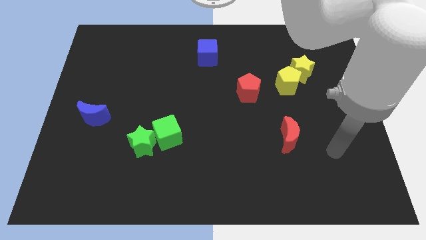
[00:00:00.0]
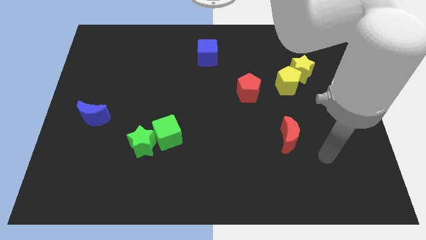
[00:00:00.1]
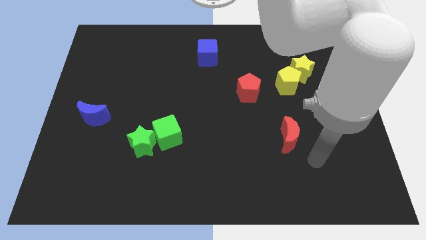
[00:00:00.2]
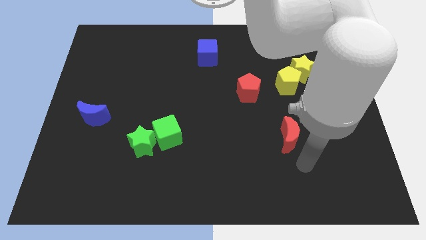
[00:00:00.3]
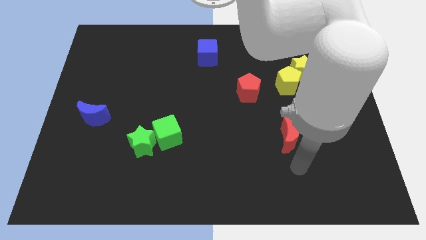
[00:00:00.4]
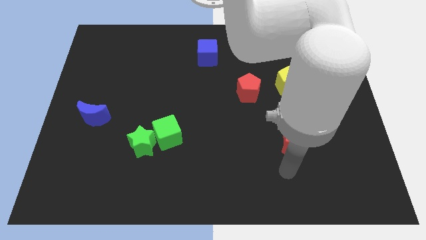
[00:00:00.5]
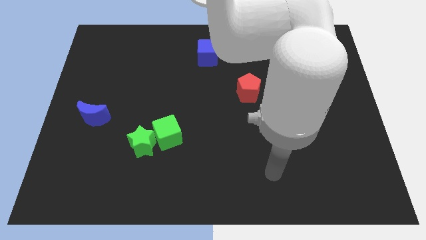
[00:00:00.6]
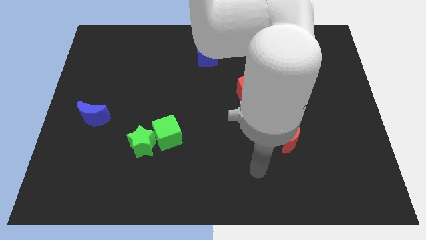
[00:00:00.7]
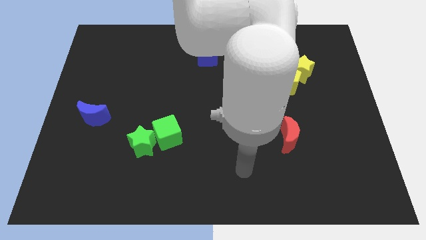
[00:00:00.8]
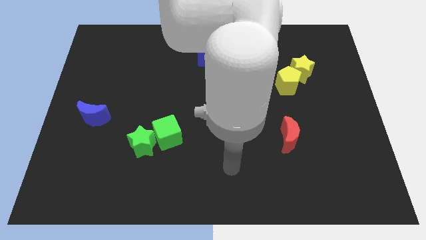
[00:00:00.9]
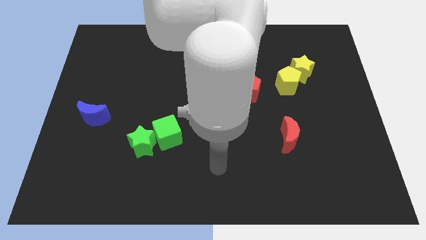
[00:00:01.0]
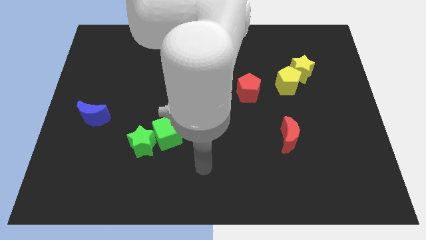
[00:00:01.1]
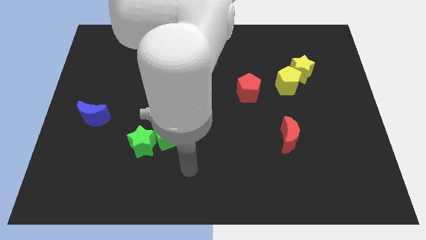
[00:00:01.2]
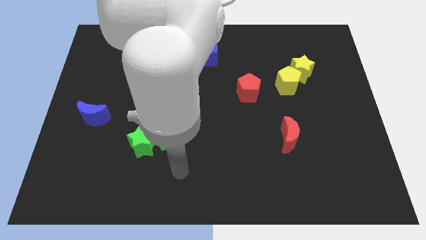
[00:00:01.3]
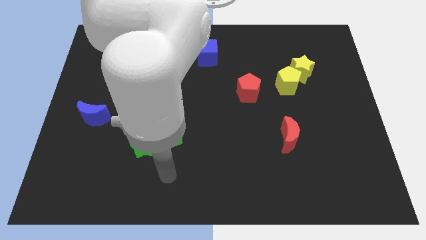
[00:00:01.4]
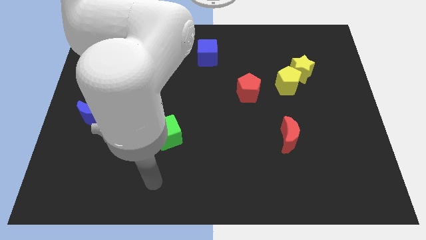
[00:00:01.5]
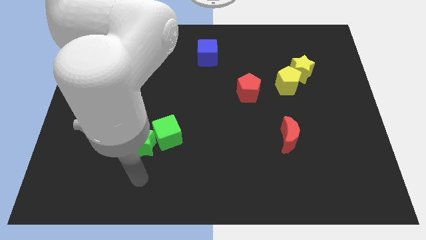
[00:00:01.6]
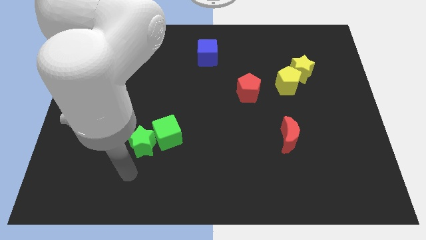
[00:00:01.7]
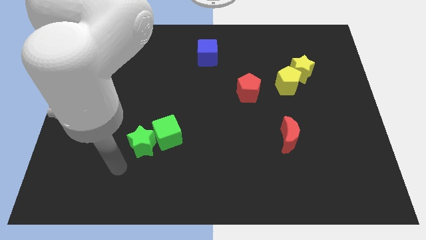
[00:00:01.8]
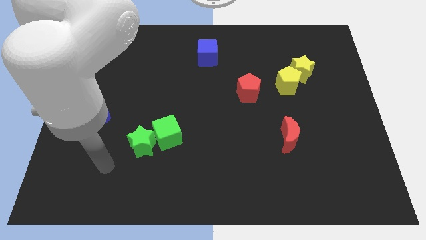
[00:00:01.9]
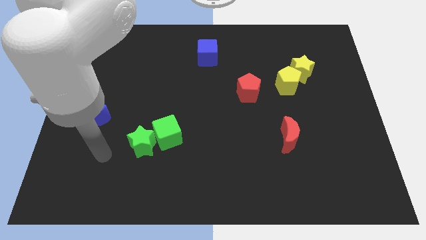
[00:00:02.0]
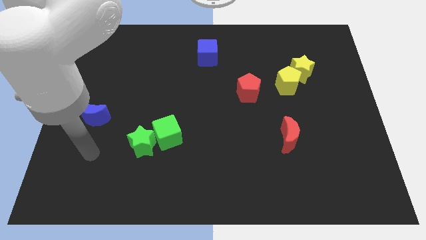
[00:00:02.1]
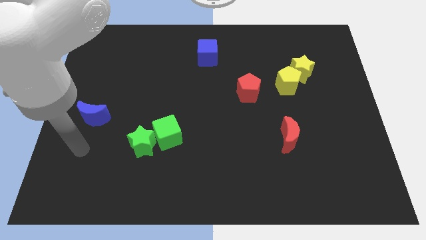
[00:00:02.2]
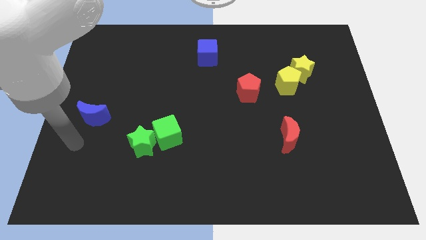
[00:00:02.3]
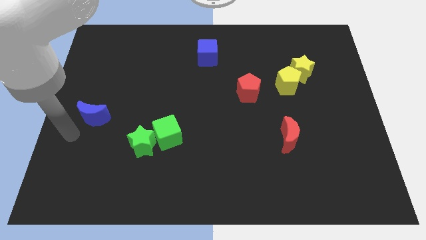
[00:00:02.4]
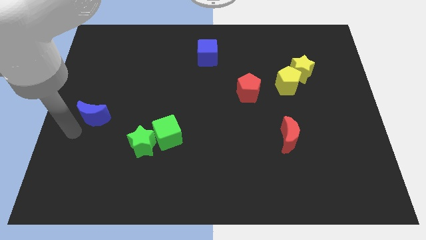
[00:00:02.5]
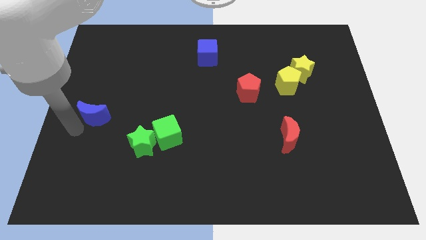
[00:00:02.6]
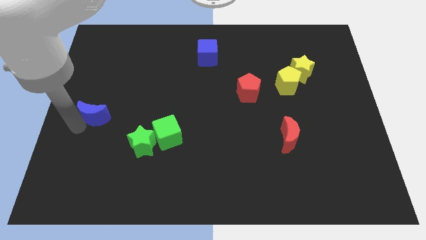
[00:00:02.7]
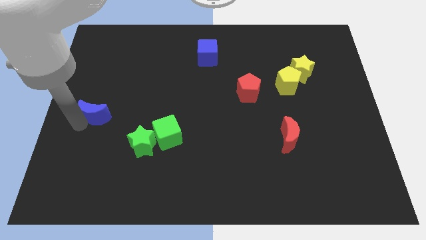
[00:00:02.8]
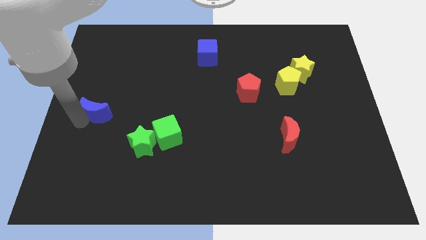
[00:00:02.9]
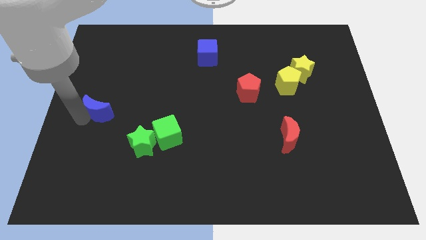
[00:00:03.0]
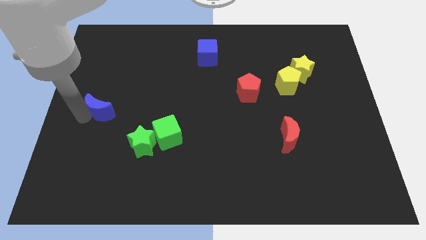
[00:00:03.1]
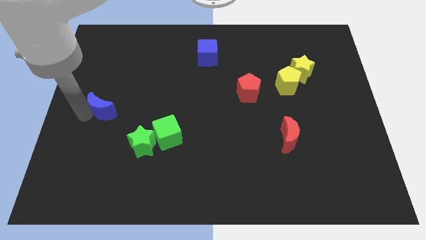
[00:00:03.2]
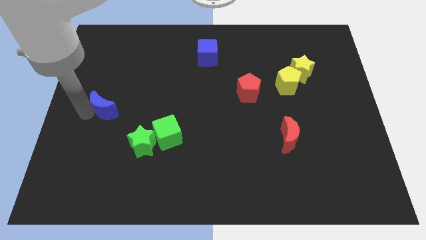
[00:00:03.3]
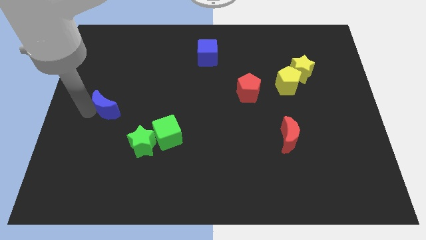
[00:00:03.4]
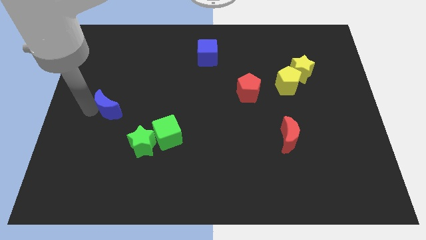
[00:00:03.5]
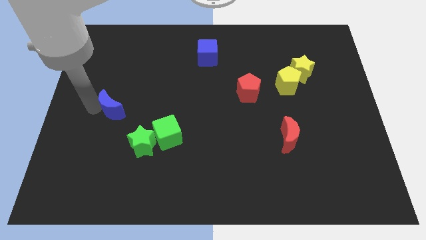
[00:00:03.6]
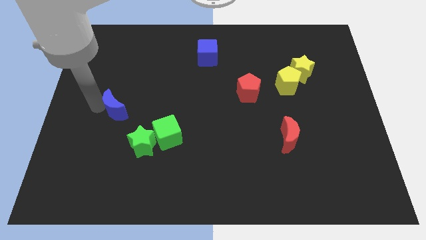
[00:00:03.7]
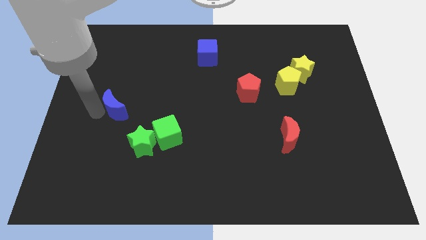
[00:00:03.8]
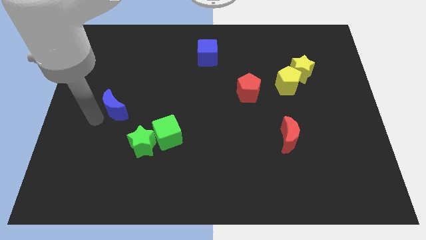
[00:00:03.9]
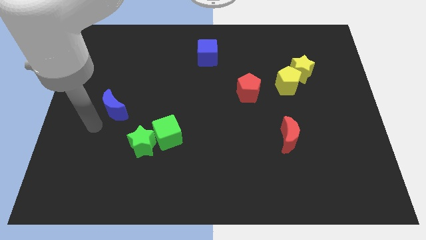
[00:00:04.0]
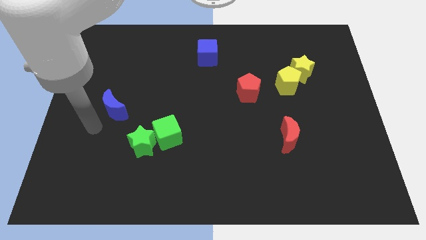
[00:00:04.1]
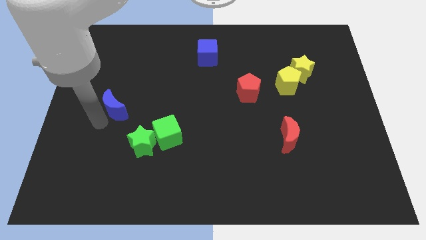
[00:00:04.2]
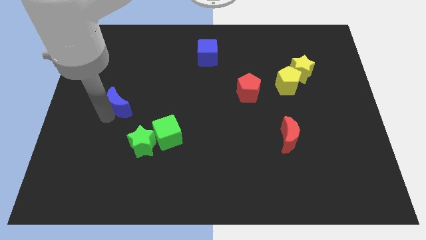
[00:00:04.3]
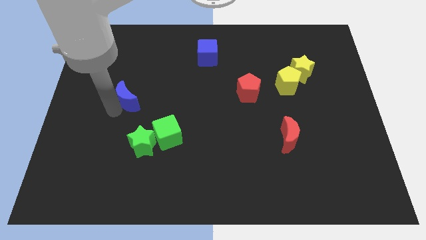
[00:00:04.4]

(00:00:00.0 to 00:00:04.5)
move the blue moon diagonally upwards and right a bit

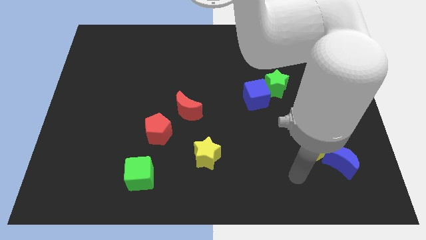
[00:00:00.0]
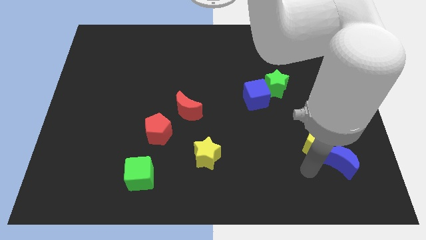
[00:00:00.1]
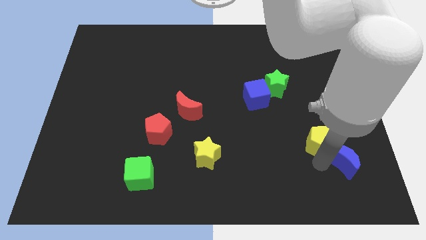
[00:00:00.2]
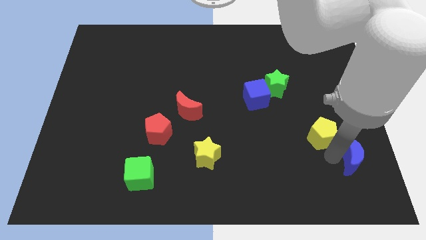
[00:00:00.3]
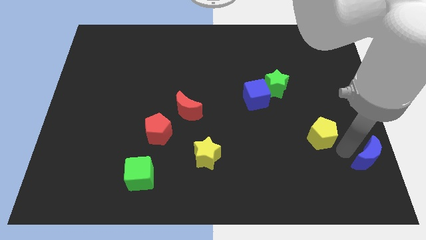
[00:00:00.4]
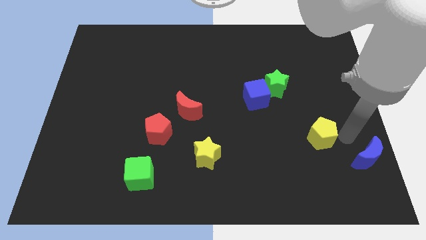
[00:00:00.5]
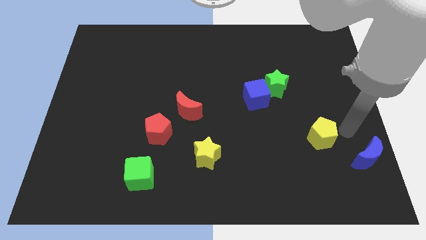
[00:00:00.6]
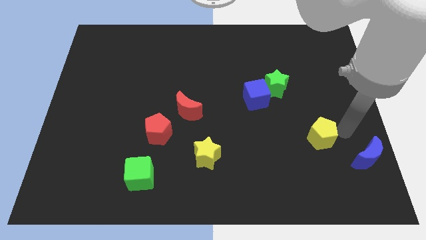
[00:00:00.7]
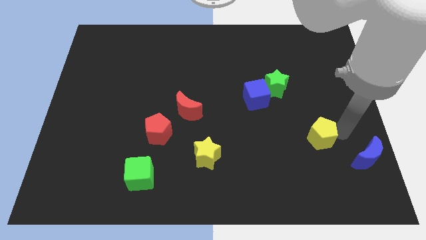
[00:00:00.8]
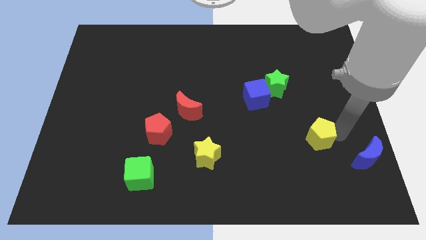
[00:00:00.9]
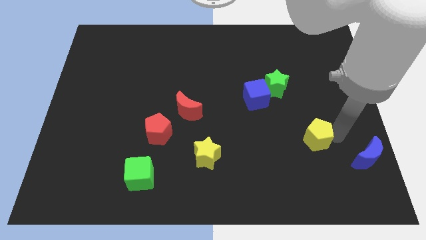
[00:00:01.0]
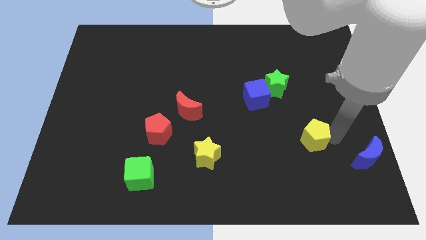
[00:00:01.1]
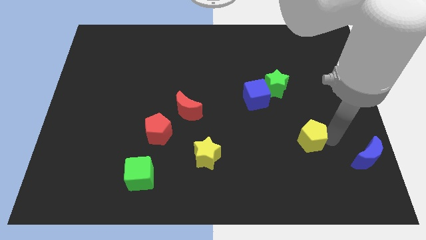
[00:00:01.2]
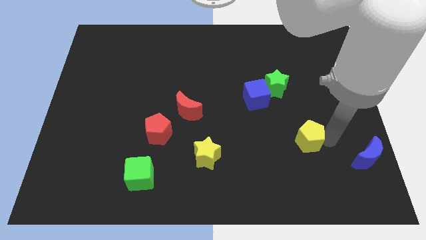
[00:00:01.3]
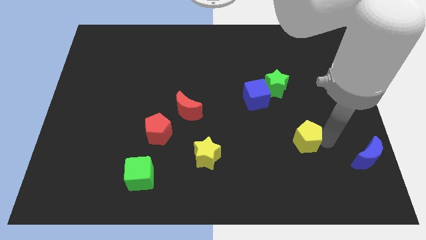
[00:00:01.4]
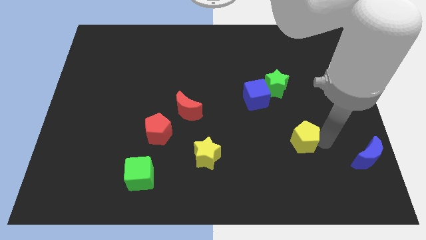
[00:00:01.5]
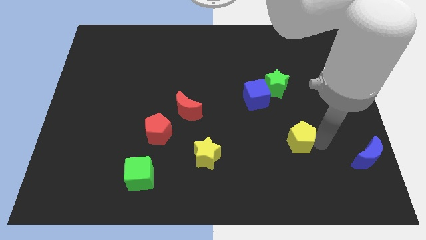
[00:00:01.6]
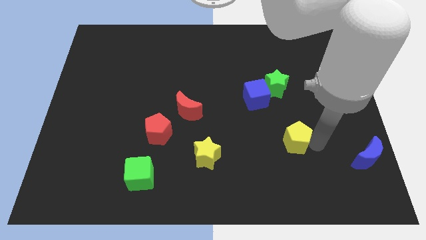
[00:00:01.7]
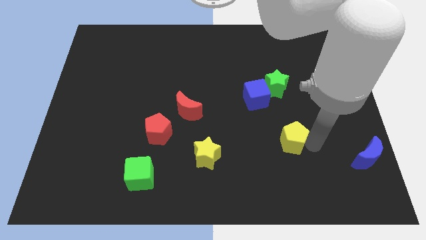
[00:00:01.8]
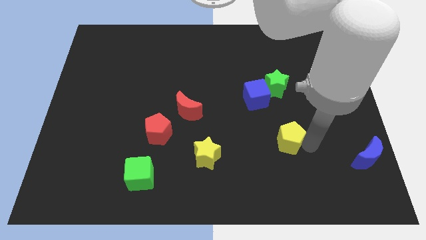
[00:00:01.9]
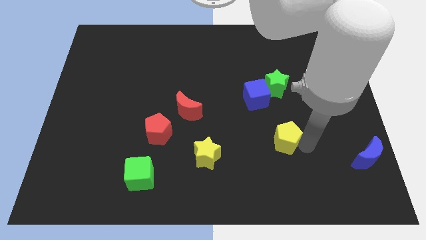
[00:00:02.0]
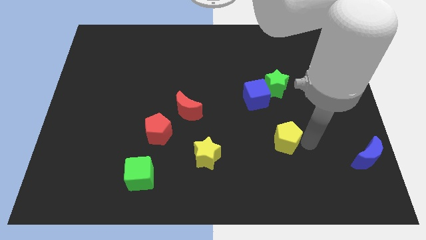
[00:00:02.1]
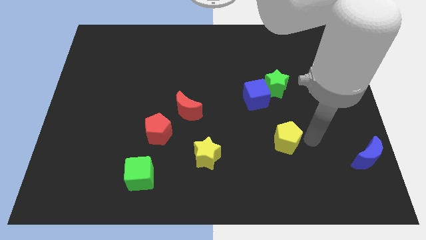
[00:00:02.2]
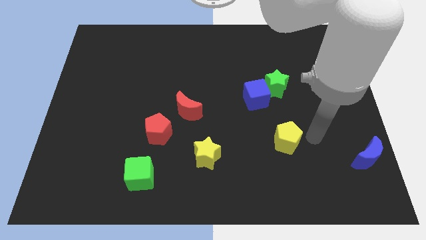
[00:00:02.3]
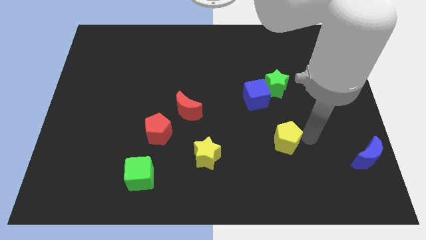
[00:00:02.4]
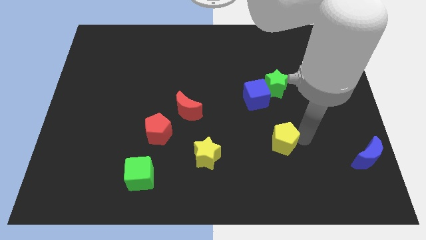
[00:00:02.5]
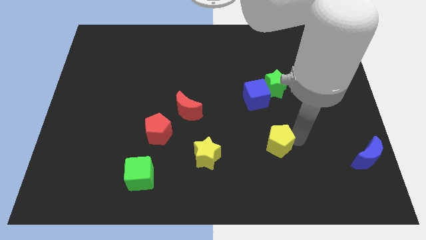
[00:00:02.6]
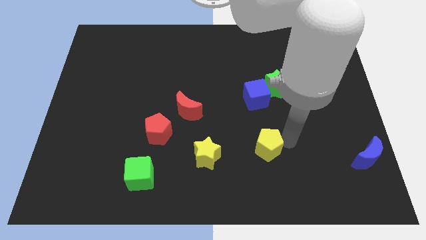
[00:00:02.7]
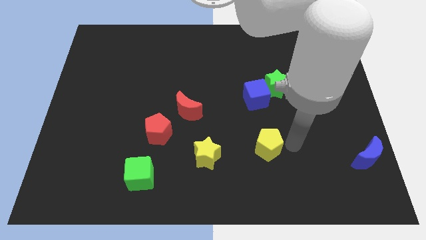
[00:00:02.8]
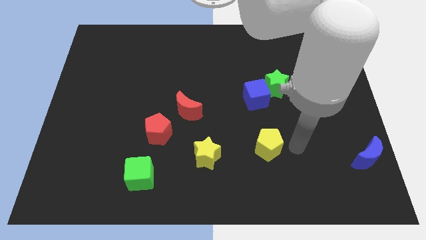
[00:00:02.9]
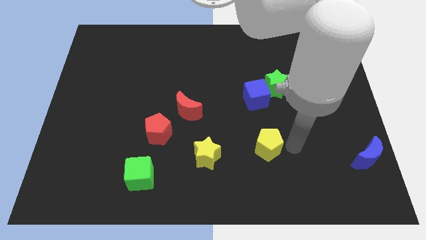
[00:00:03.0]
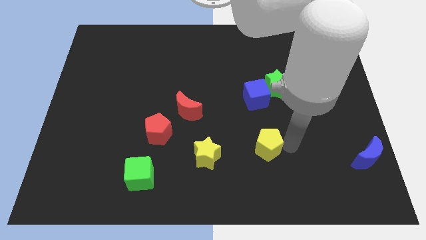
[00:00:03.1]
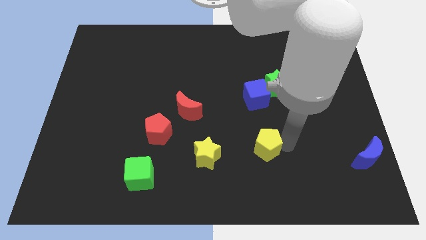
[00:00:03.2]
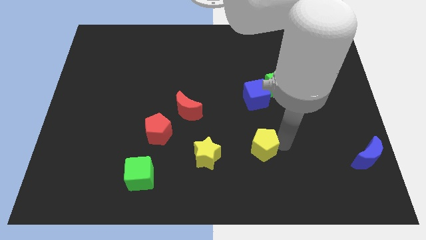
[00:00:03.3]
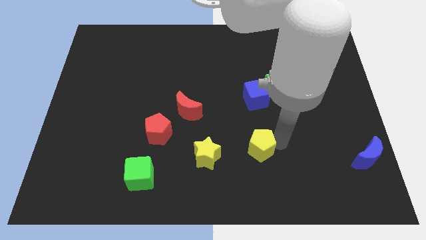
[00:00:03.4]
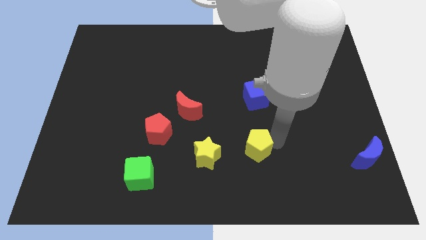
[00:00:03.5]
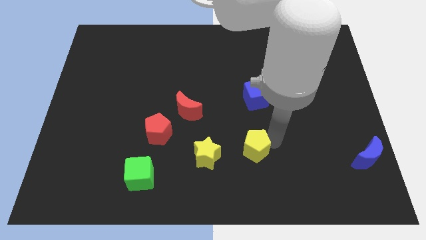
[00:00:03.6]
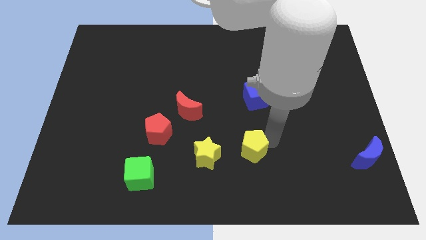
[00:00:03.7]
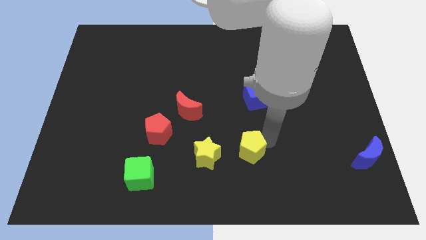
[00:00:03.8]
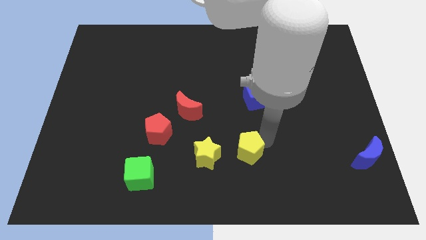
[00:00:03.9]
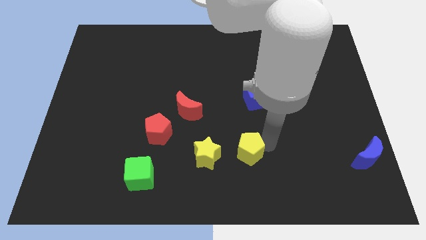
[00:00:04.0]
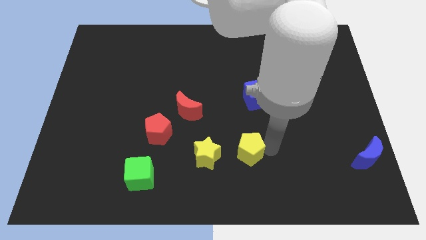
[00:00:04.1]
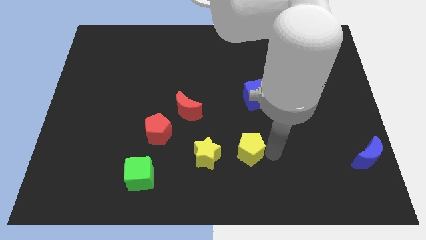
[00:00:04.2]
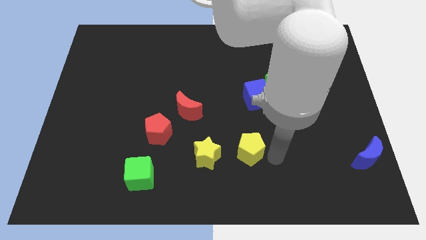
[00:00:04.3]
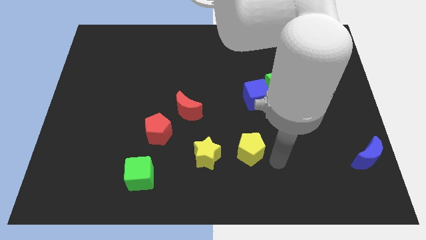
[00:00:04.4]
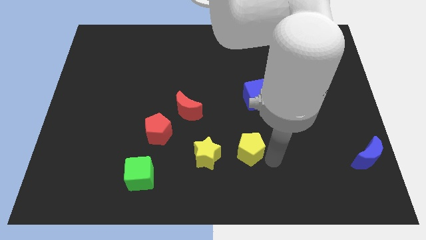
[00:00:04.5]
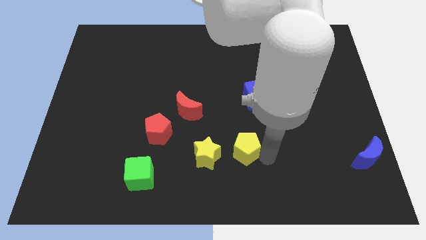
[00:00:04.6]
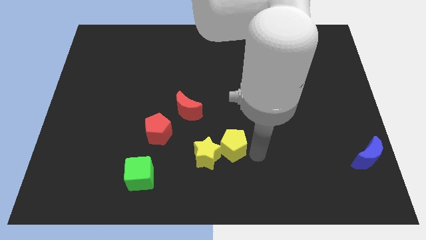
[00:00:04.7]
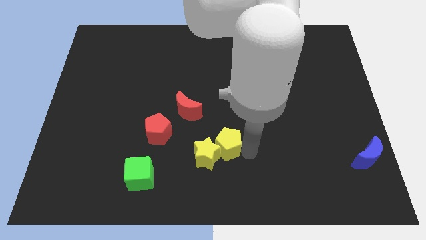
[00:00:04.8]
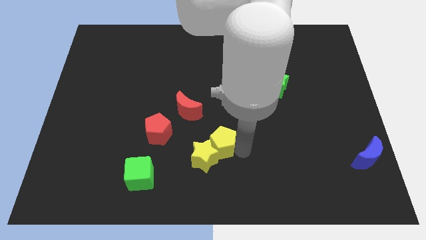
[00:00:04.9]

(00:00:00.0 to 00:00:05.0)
move the yellow pentagon left
